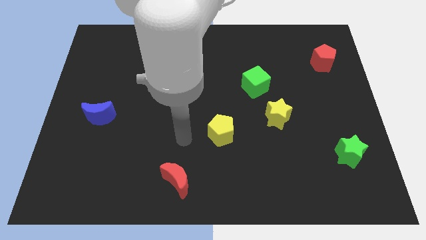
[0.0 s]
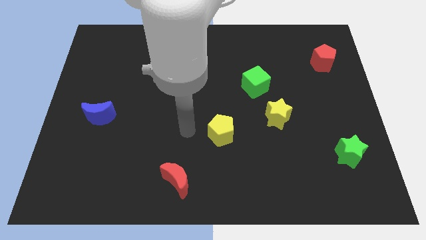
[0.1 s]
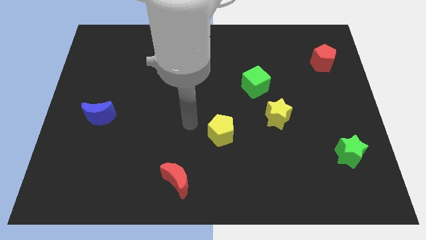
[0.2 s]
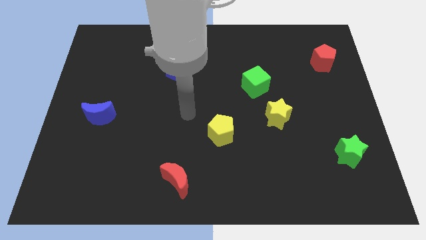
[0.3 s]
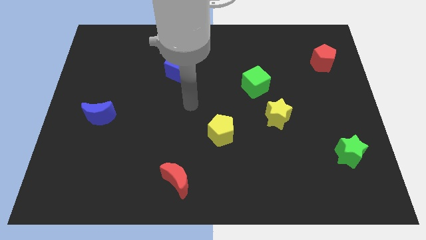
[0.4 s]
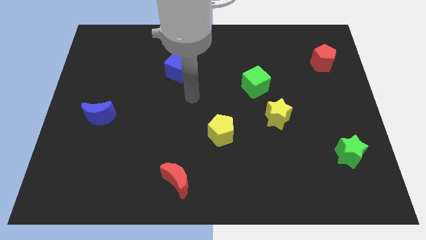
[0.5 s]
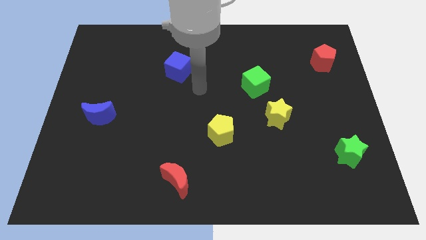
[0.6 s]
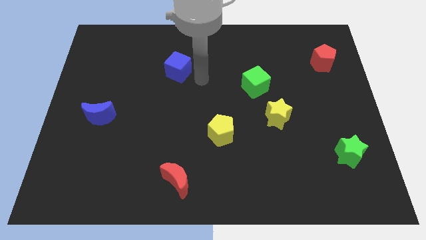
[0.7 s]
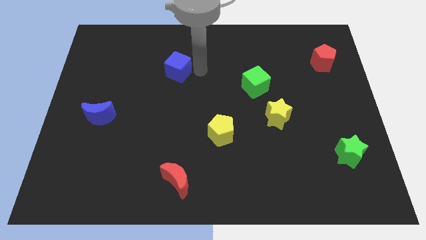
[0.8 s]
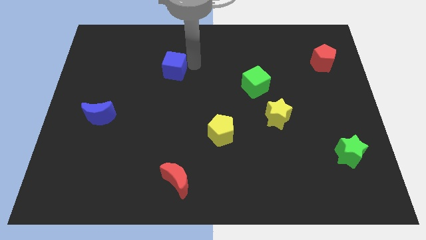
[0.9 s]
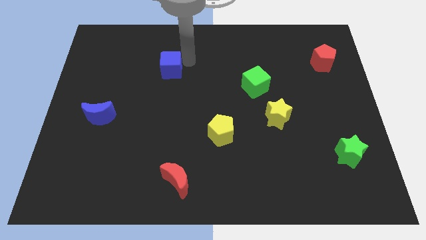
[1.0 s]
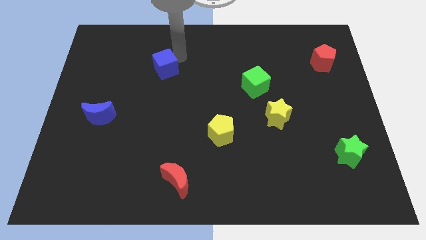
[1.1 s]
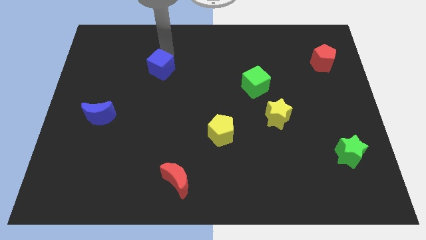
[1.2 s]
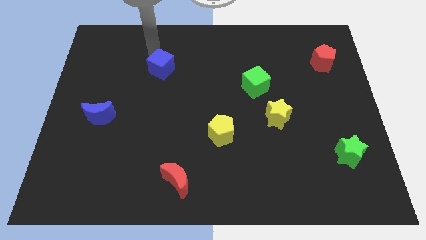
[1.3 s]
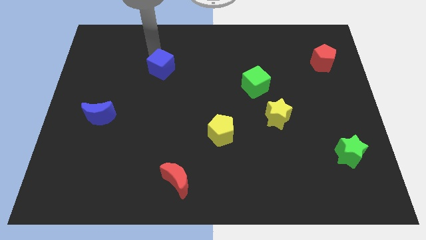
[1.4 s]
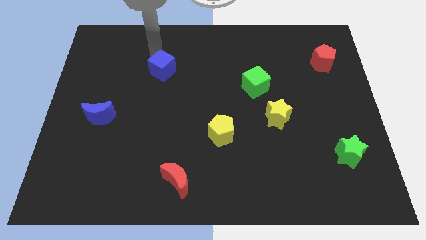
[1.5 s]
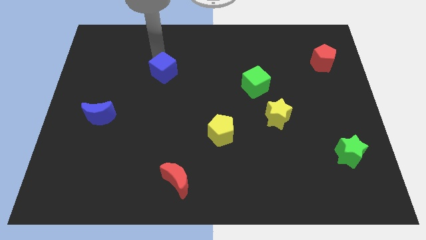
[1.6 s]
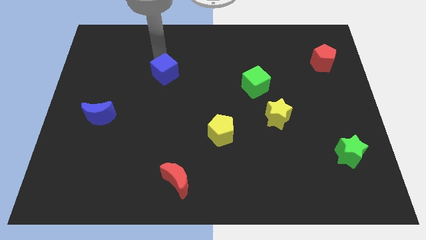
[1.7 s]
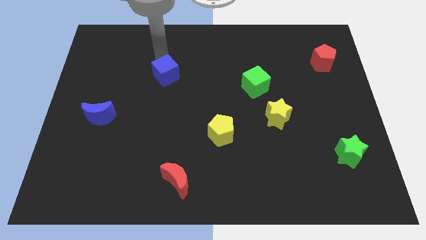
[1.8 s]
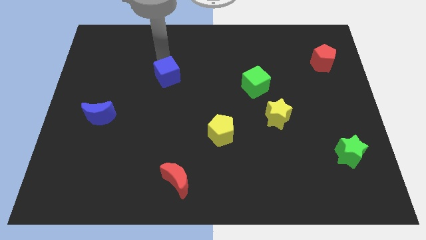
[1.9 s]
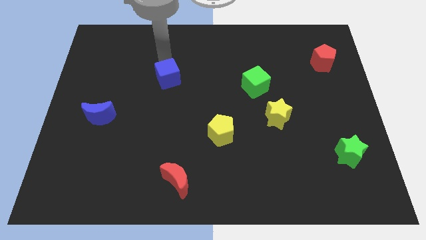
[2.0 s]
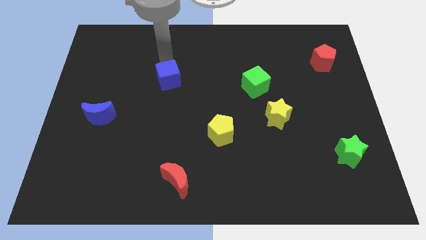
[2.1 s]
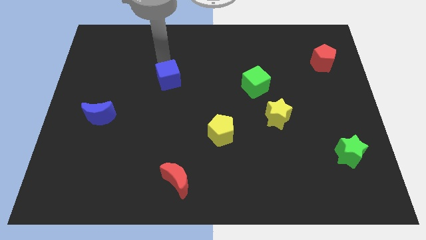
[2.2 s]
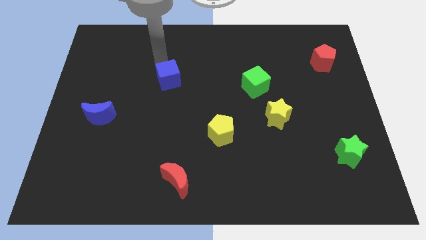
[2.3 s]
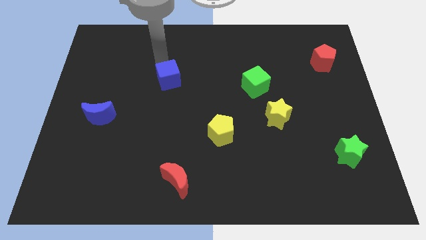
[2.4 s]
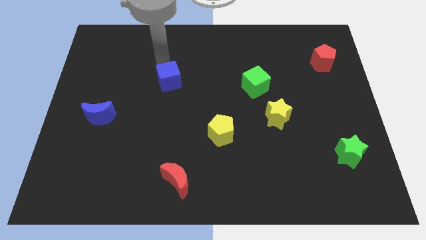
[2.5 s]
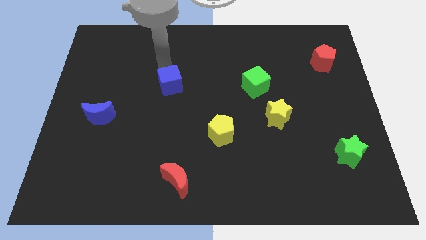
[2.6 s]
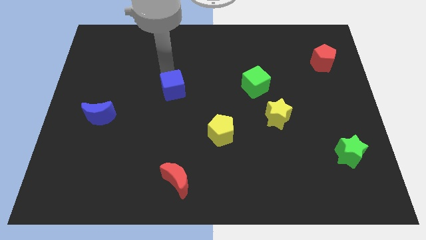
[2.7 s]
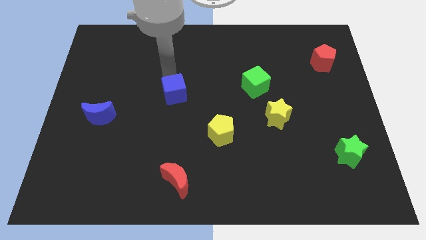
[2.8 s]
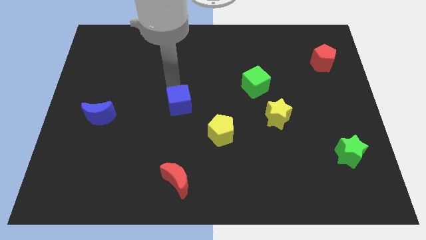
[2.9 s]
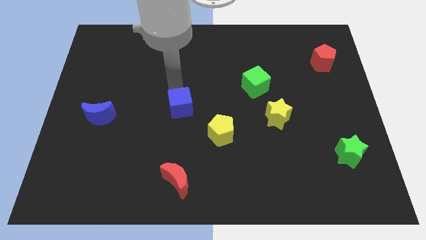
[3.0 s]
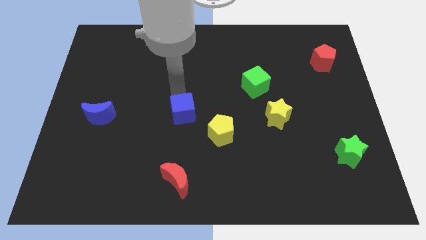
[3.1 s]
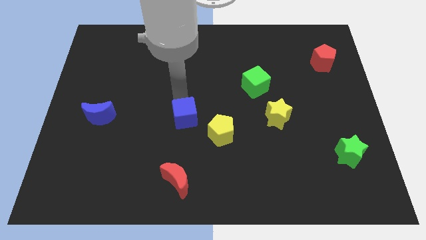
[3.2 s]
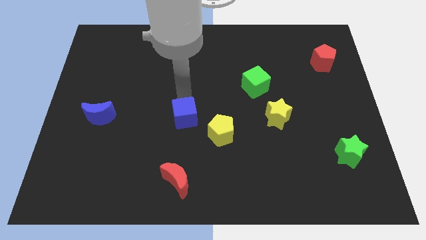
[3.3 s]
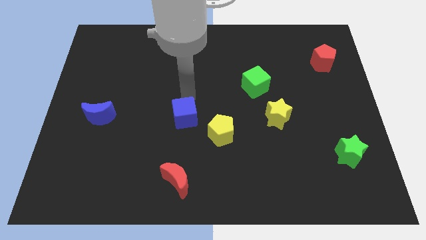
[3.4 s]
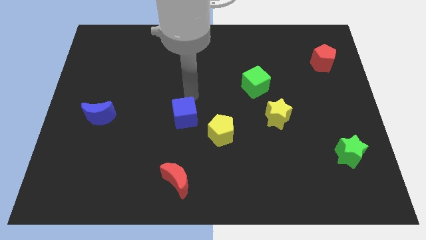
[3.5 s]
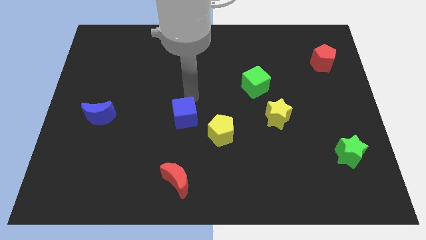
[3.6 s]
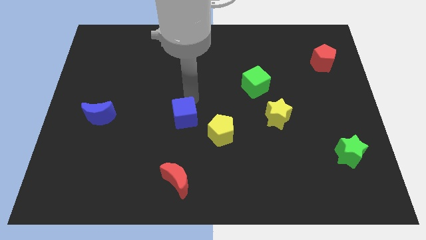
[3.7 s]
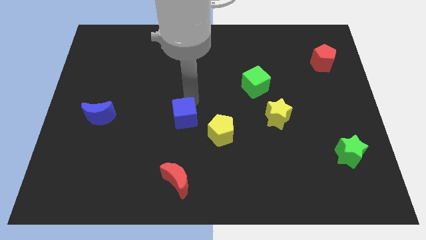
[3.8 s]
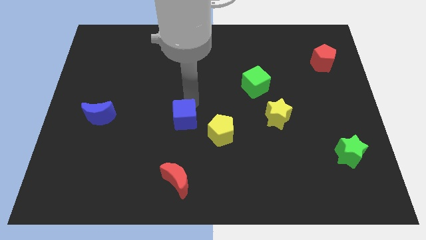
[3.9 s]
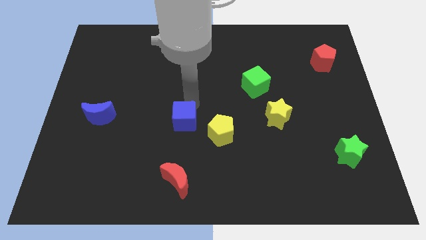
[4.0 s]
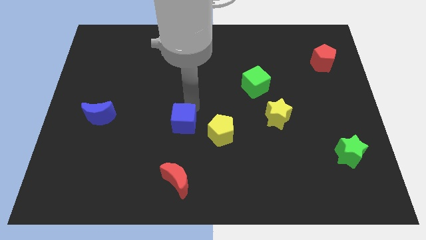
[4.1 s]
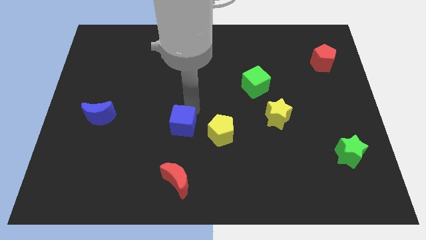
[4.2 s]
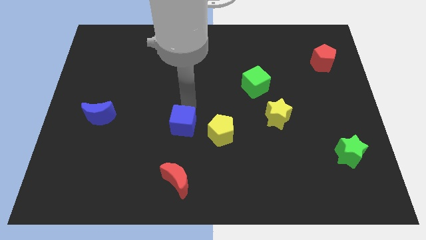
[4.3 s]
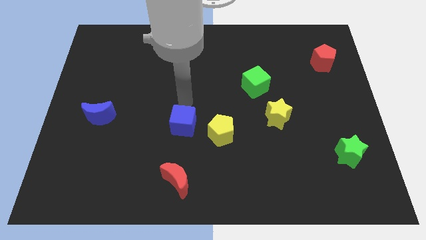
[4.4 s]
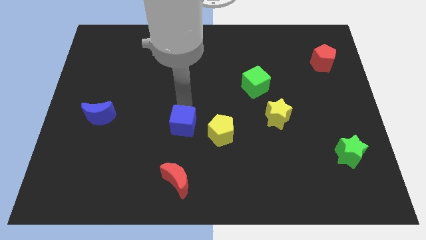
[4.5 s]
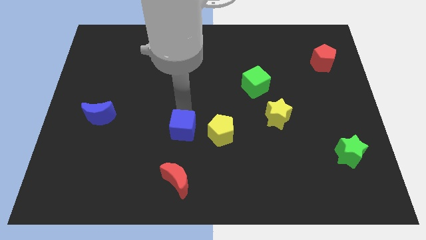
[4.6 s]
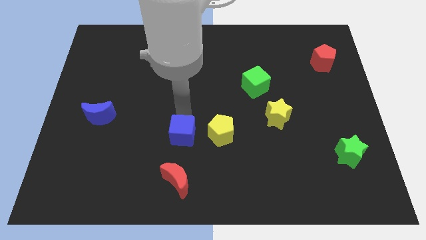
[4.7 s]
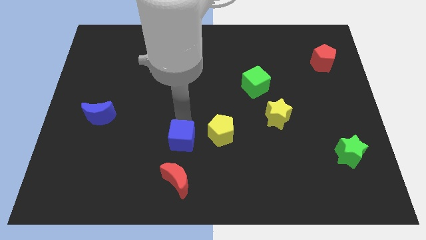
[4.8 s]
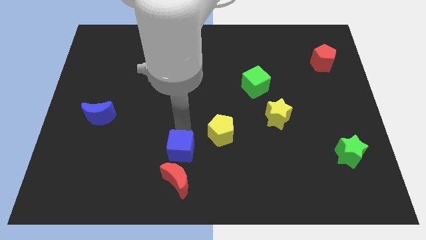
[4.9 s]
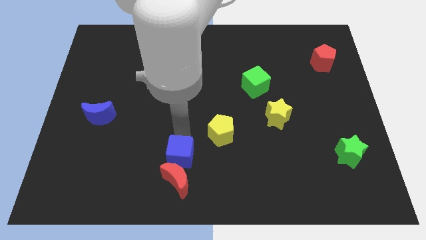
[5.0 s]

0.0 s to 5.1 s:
push the blue cube towards the red moon

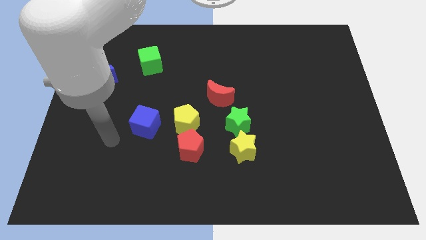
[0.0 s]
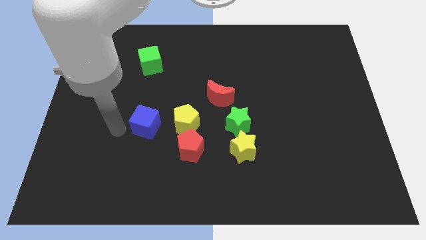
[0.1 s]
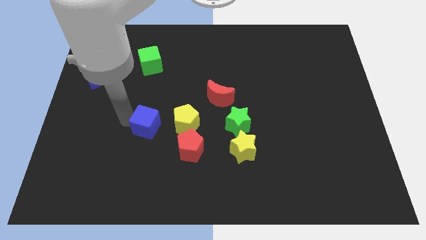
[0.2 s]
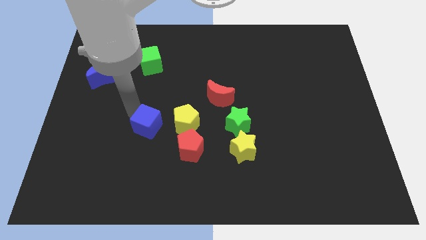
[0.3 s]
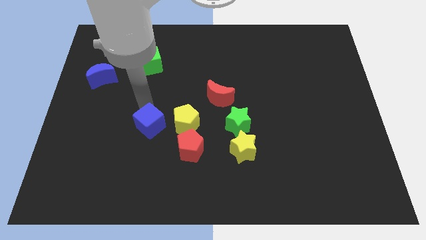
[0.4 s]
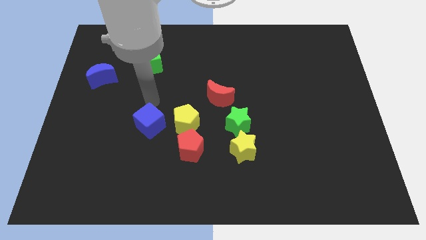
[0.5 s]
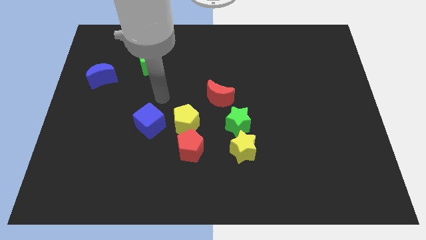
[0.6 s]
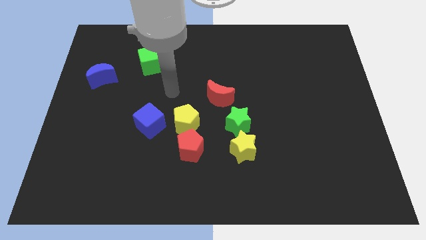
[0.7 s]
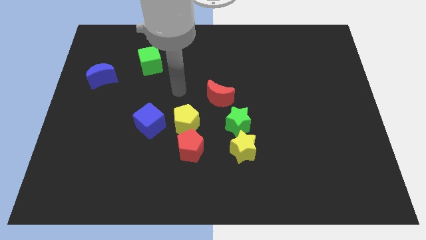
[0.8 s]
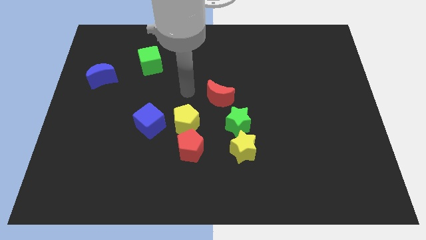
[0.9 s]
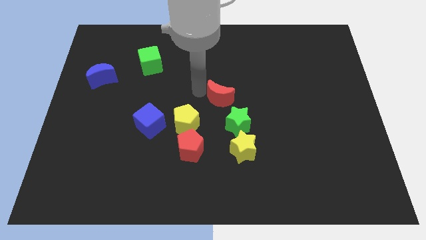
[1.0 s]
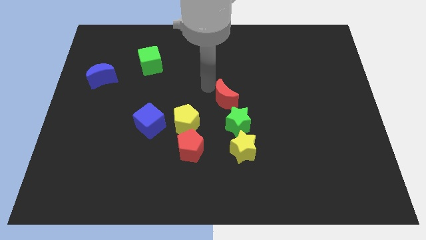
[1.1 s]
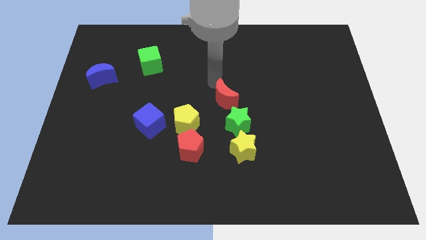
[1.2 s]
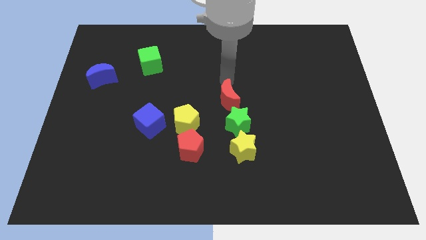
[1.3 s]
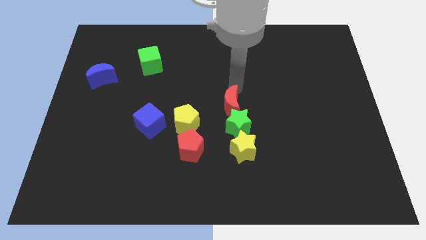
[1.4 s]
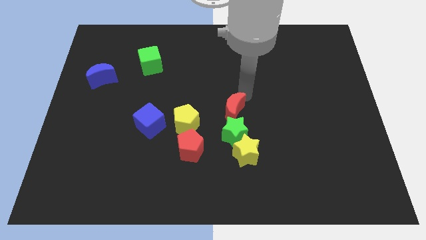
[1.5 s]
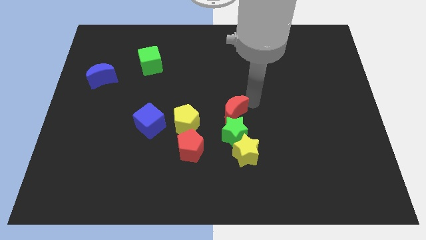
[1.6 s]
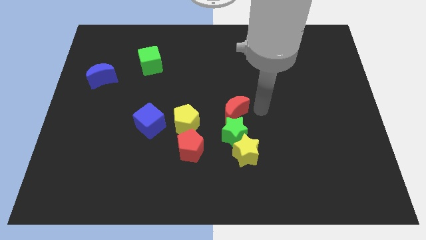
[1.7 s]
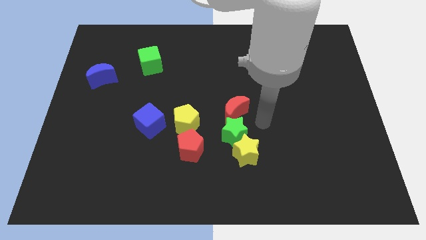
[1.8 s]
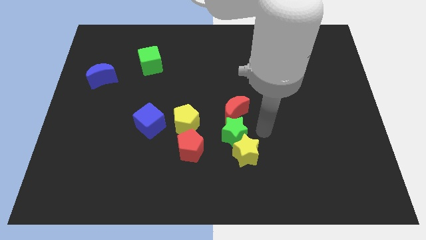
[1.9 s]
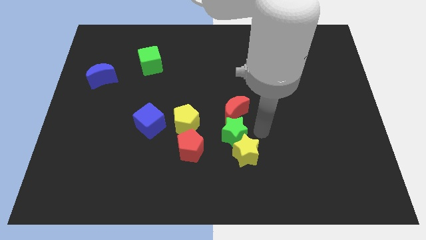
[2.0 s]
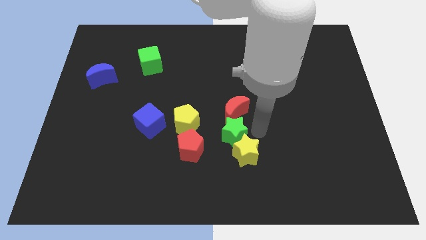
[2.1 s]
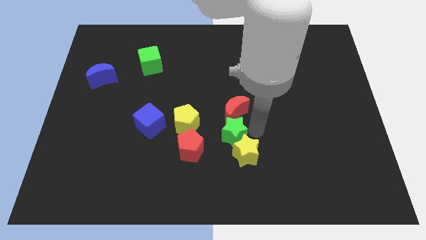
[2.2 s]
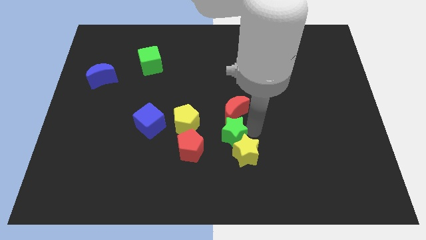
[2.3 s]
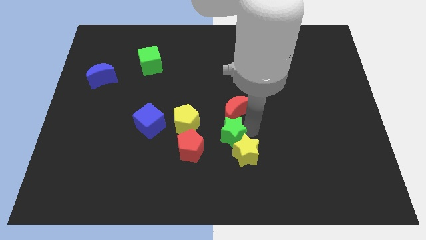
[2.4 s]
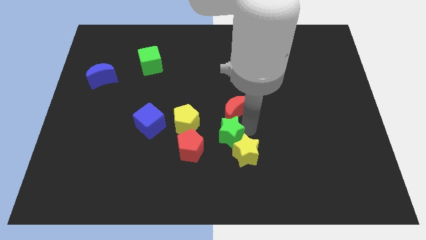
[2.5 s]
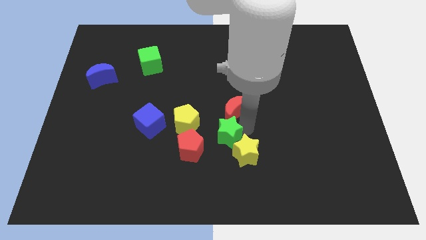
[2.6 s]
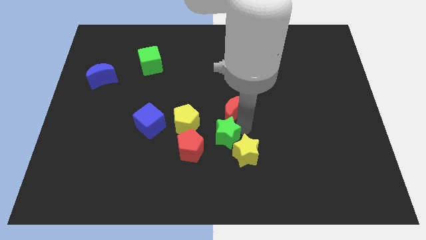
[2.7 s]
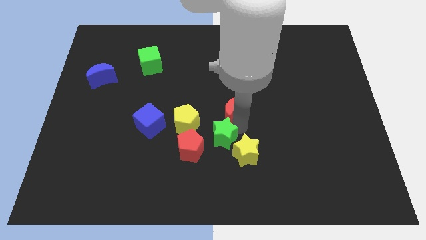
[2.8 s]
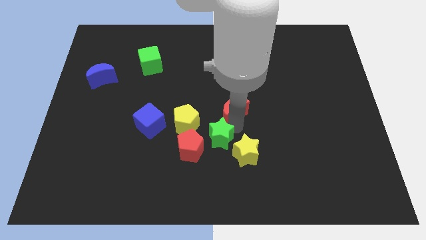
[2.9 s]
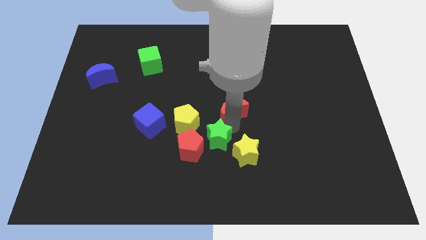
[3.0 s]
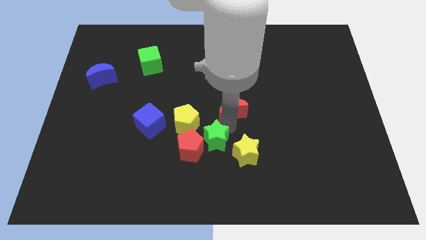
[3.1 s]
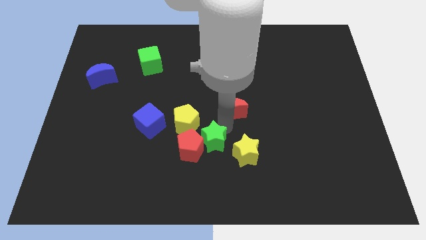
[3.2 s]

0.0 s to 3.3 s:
move the green star close to the red pentagon
